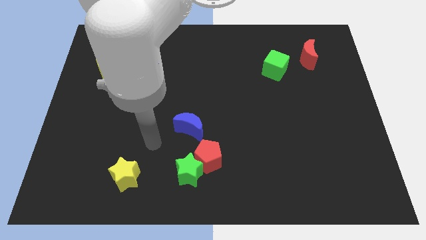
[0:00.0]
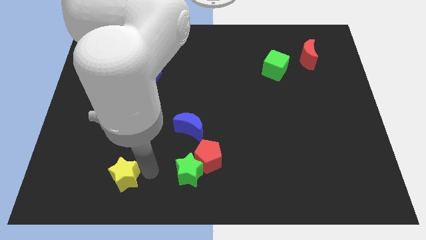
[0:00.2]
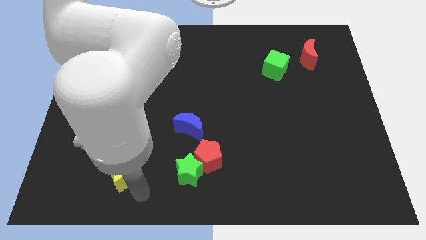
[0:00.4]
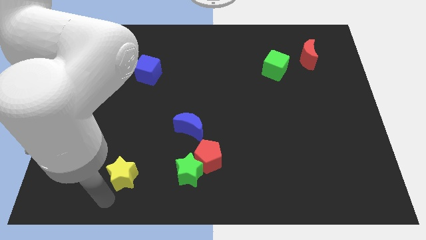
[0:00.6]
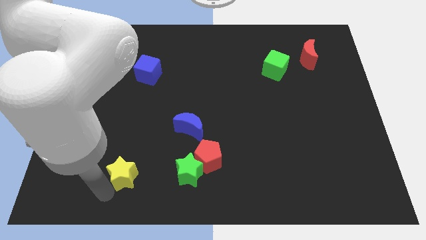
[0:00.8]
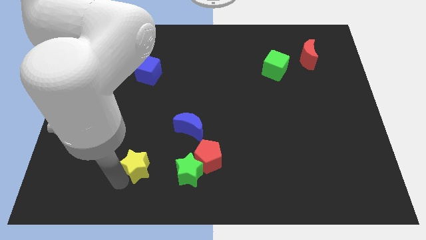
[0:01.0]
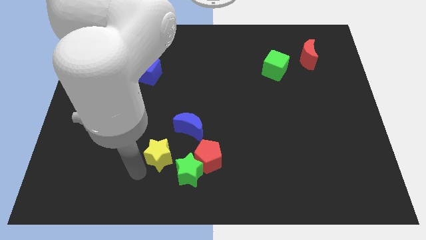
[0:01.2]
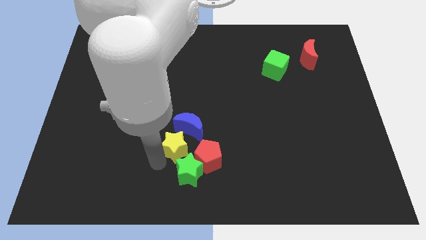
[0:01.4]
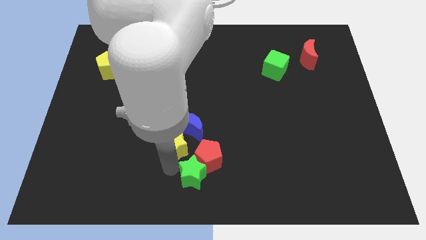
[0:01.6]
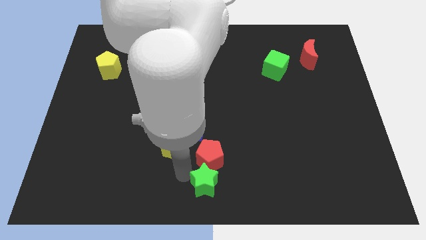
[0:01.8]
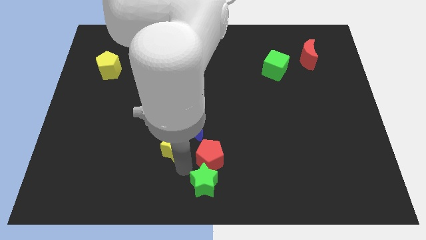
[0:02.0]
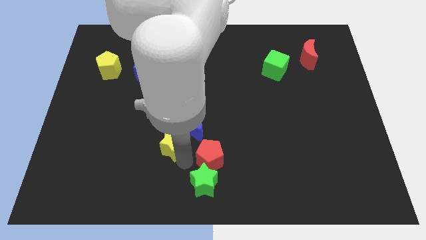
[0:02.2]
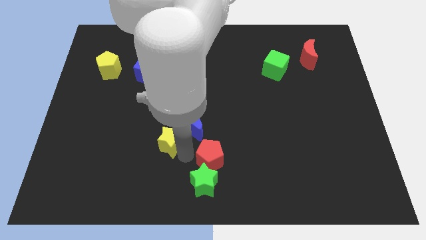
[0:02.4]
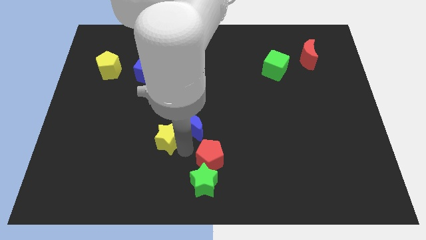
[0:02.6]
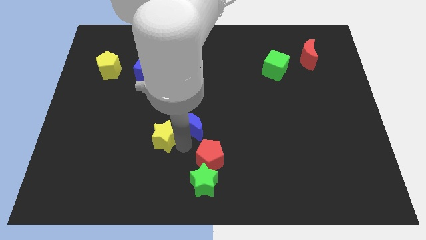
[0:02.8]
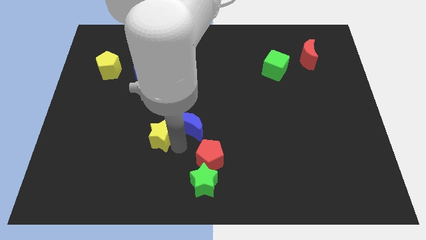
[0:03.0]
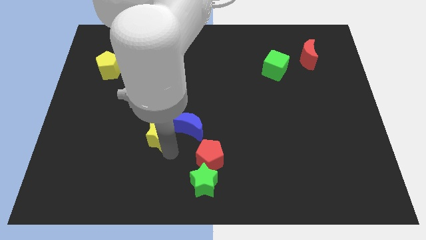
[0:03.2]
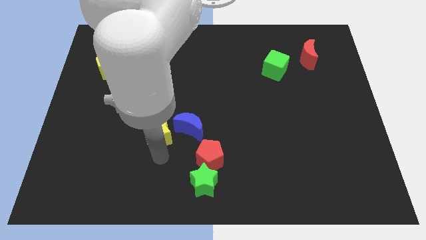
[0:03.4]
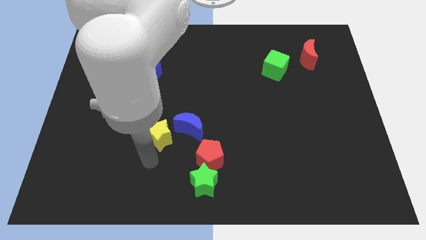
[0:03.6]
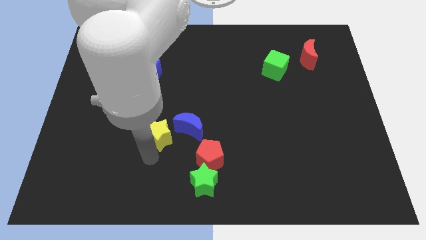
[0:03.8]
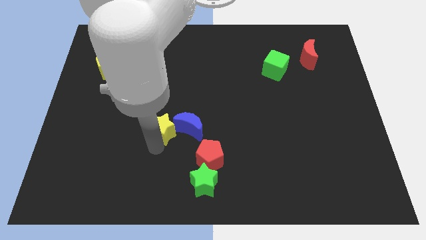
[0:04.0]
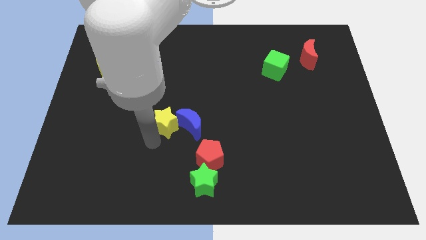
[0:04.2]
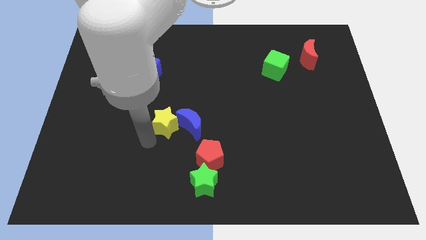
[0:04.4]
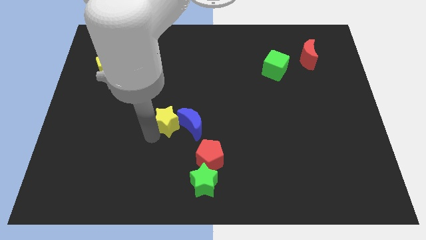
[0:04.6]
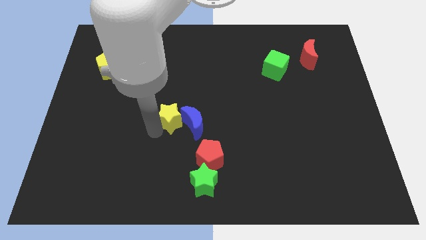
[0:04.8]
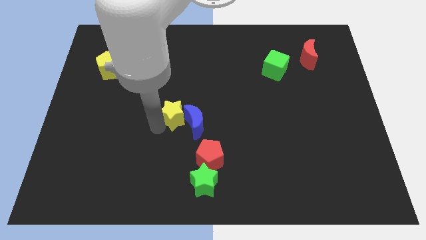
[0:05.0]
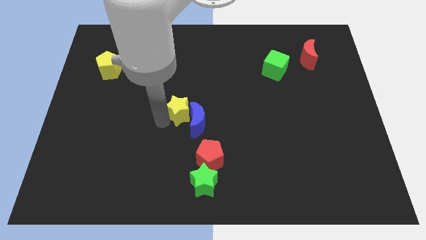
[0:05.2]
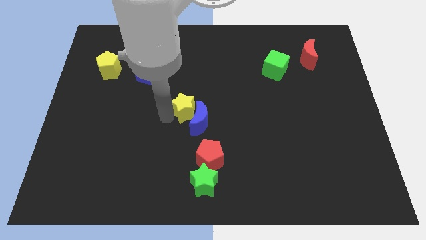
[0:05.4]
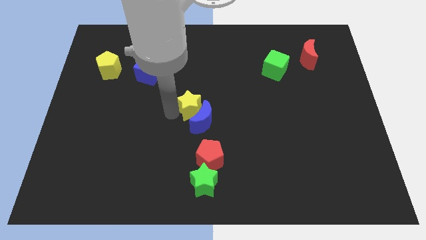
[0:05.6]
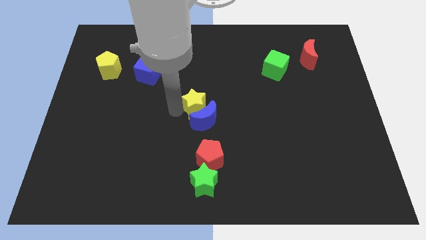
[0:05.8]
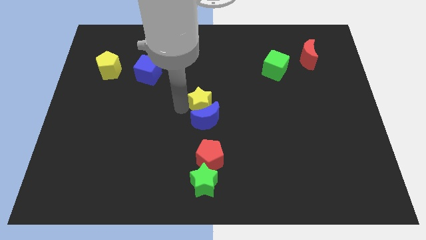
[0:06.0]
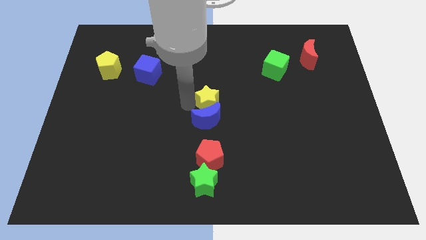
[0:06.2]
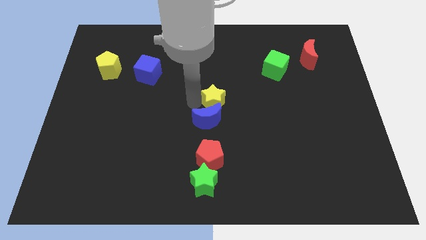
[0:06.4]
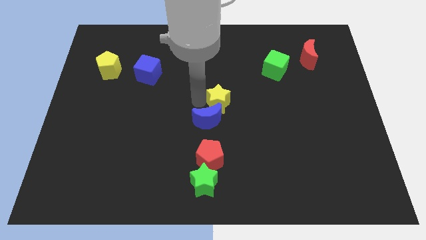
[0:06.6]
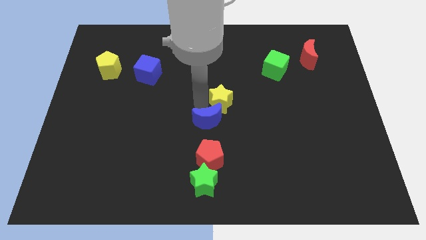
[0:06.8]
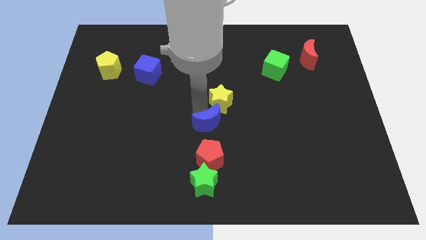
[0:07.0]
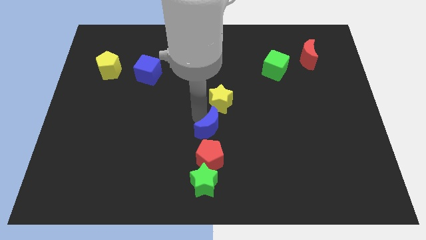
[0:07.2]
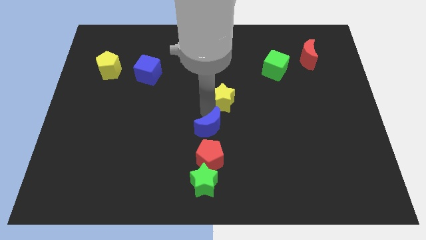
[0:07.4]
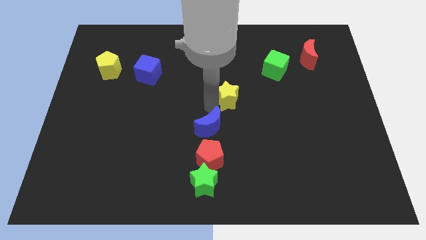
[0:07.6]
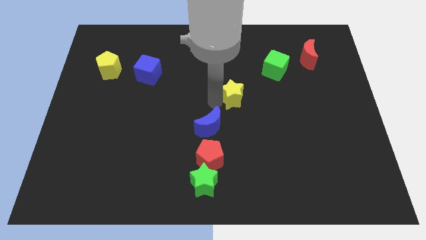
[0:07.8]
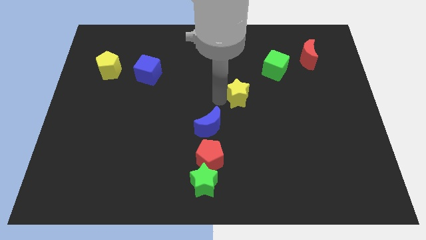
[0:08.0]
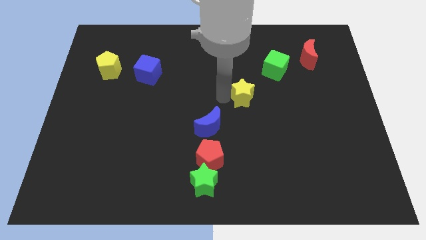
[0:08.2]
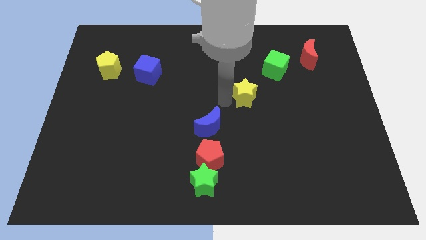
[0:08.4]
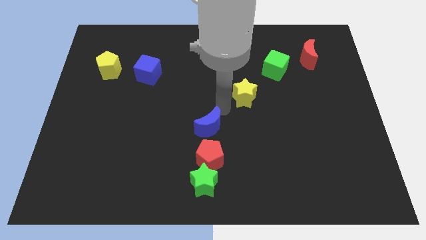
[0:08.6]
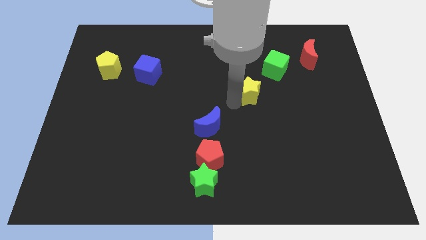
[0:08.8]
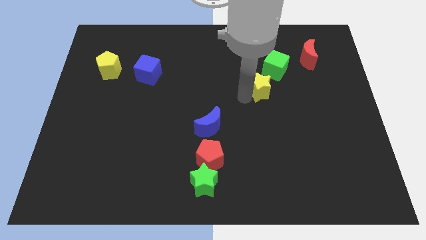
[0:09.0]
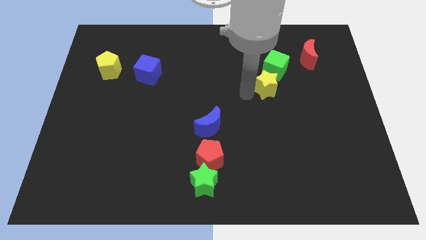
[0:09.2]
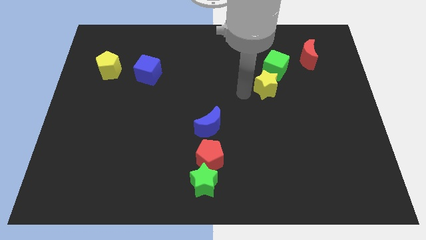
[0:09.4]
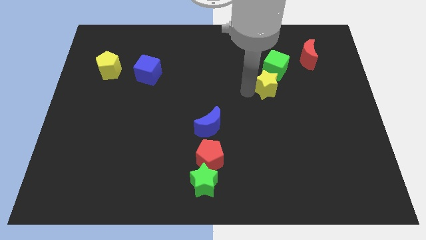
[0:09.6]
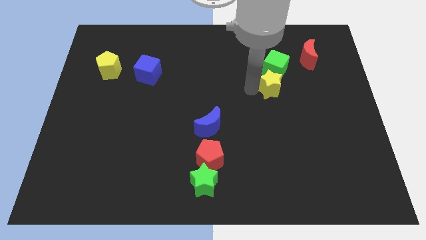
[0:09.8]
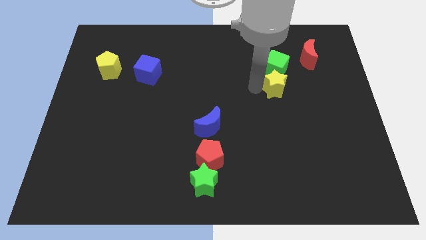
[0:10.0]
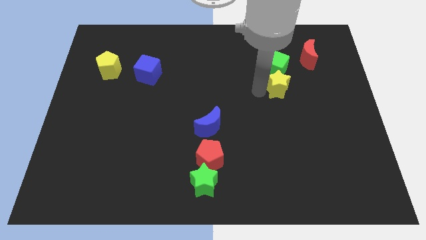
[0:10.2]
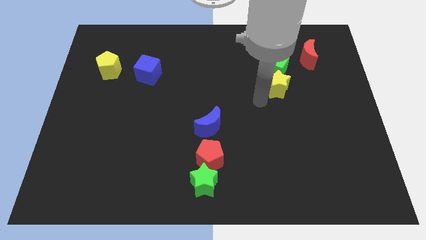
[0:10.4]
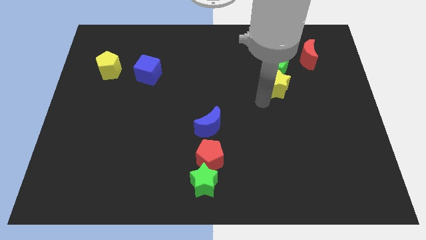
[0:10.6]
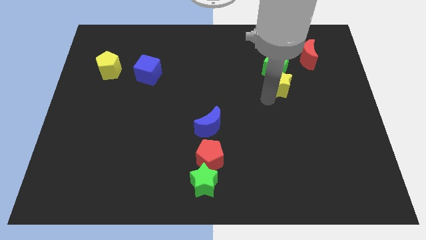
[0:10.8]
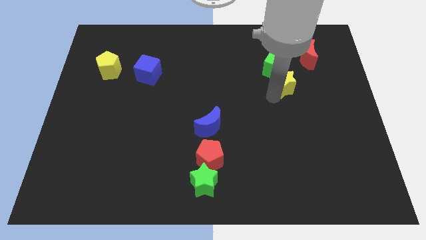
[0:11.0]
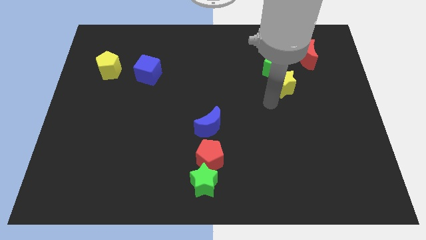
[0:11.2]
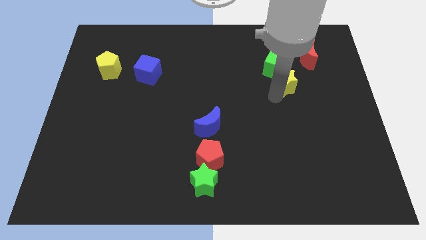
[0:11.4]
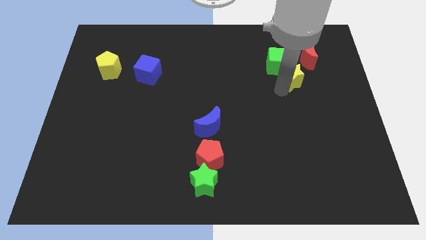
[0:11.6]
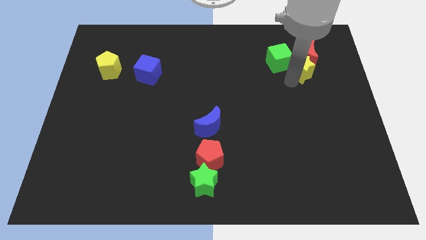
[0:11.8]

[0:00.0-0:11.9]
put the yellow star close to the red moon

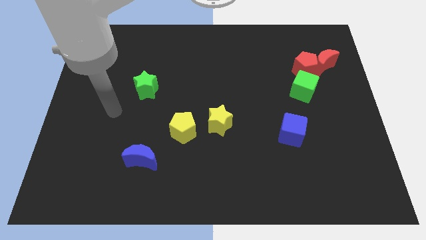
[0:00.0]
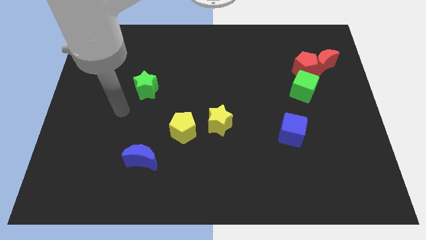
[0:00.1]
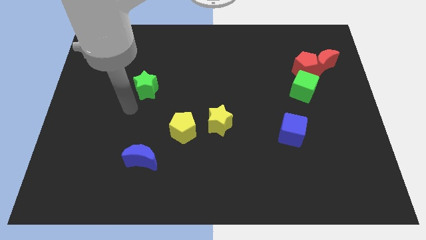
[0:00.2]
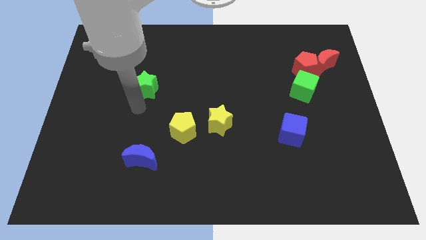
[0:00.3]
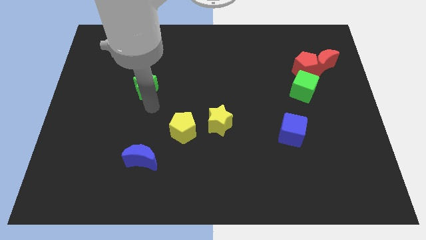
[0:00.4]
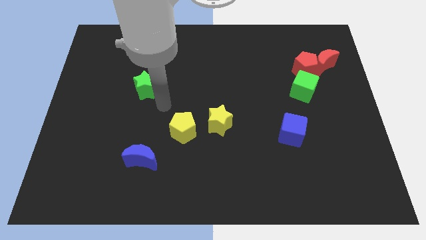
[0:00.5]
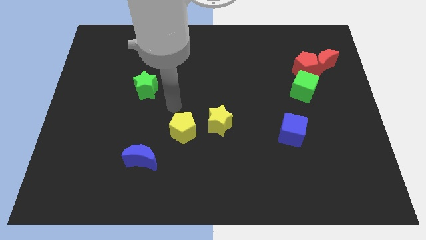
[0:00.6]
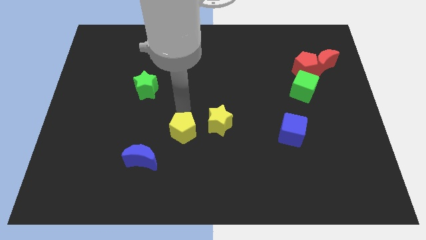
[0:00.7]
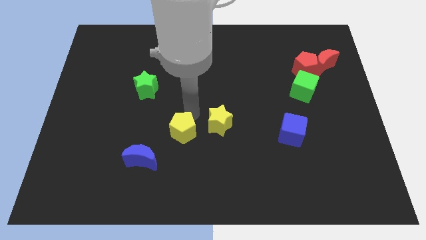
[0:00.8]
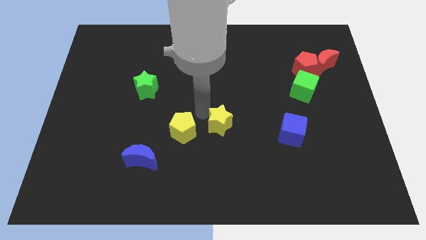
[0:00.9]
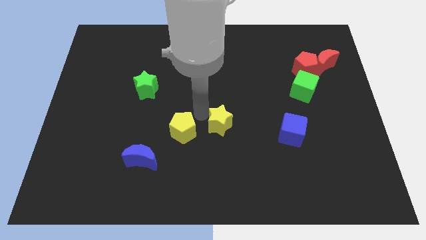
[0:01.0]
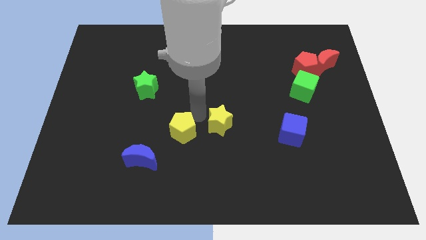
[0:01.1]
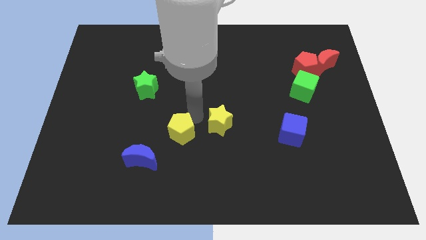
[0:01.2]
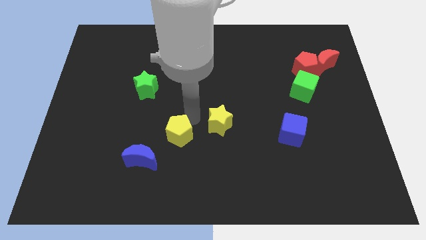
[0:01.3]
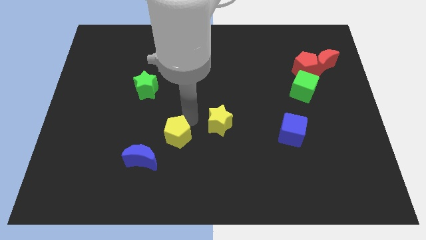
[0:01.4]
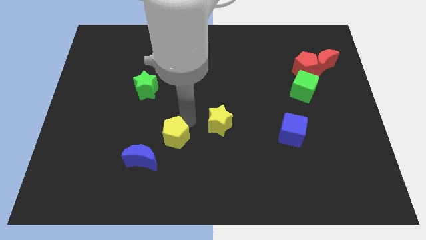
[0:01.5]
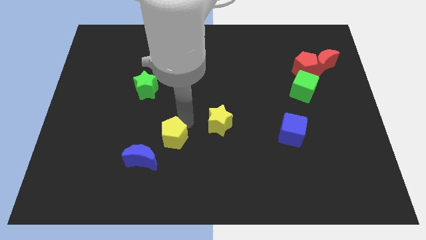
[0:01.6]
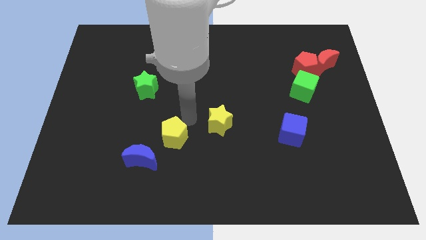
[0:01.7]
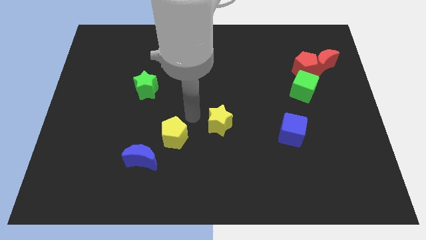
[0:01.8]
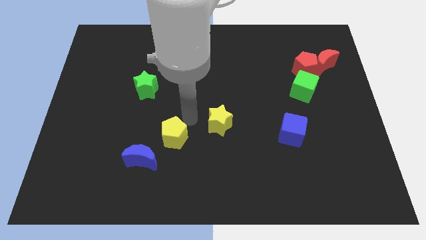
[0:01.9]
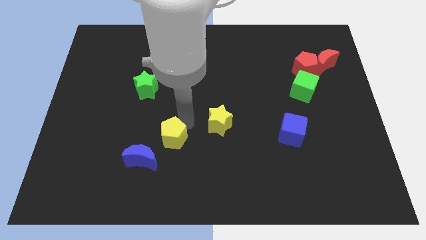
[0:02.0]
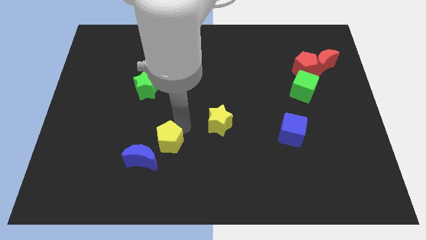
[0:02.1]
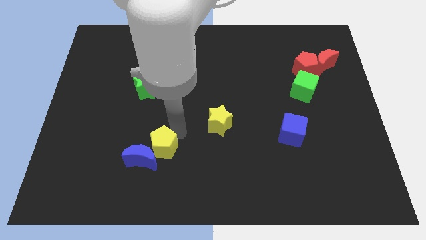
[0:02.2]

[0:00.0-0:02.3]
move the yellow pentagon to the blue moon
